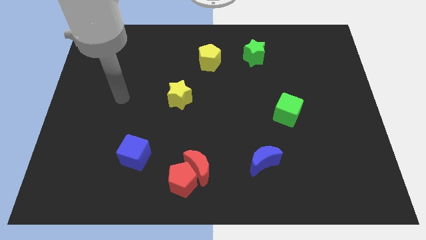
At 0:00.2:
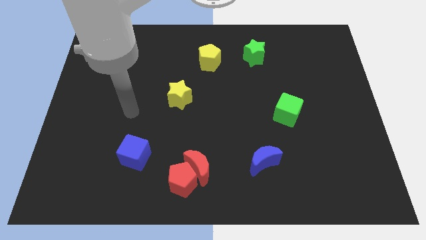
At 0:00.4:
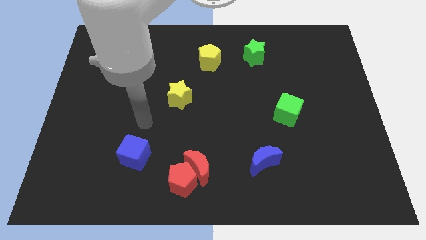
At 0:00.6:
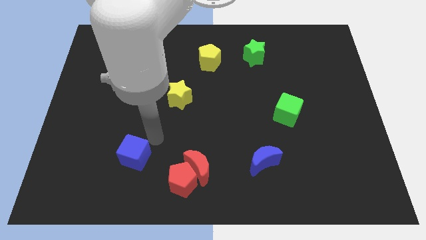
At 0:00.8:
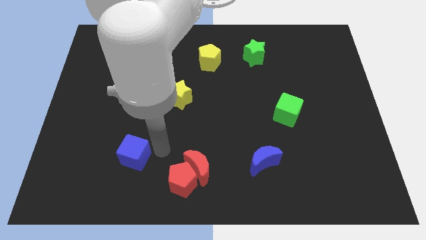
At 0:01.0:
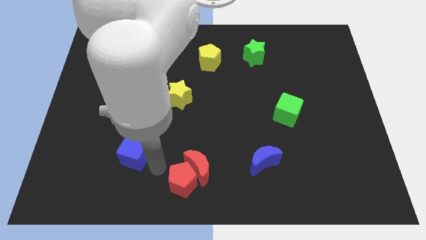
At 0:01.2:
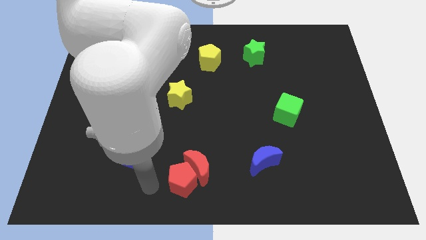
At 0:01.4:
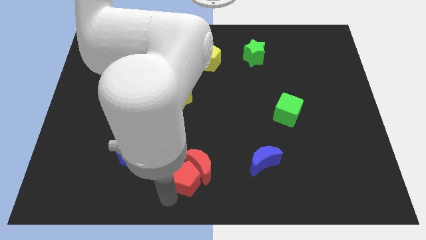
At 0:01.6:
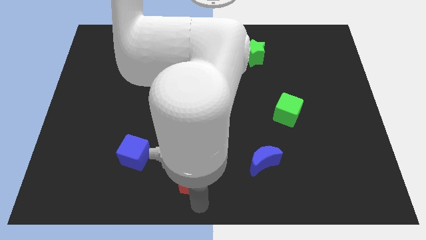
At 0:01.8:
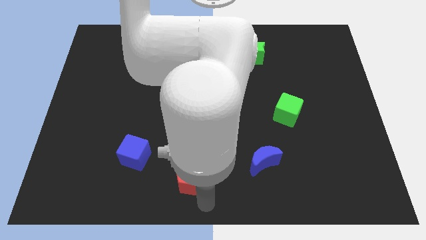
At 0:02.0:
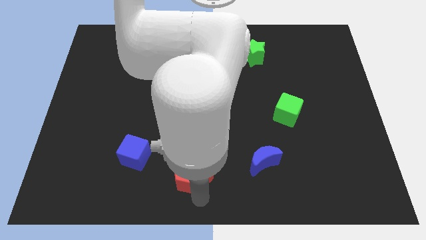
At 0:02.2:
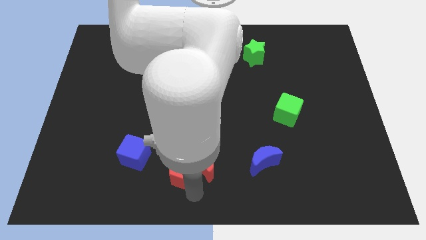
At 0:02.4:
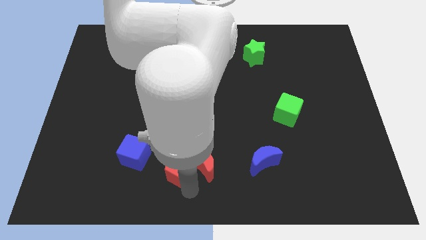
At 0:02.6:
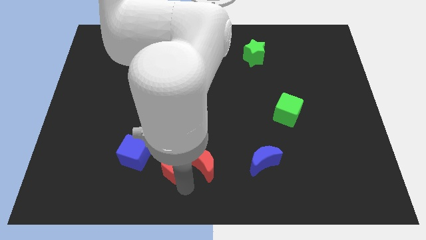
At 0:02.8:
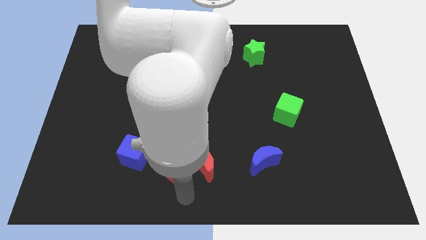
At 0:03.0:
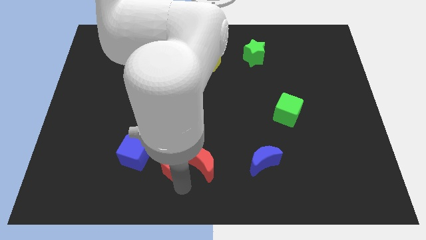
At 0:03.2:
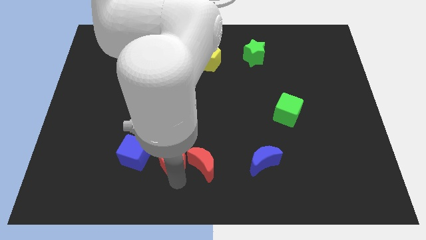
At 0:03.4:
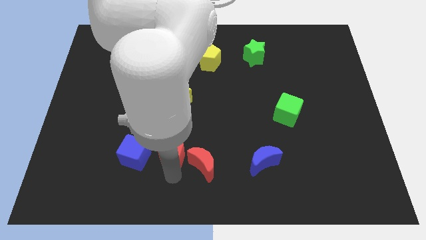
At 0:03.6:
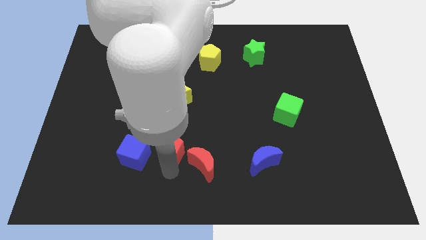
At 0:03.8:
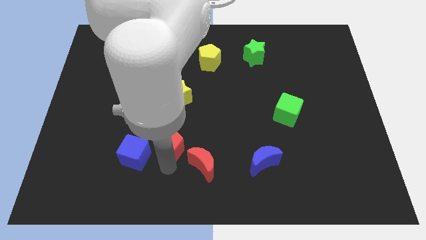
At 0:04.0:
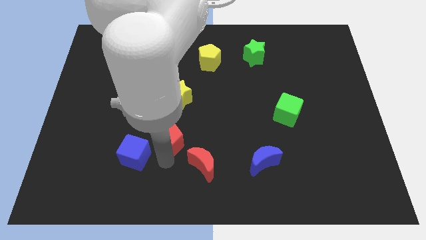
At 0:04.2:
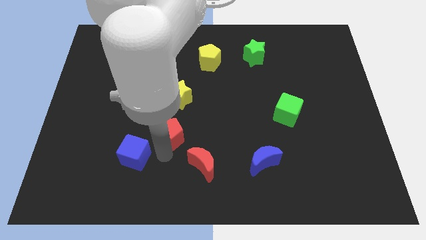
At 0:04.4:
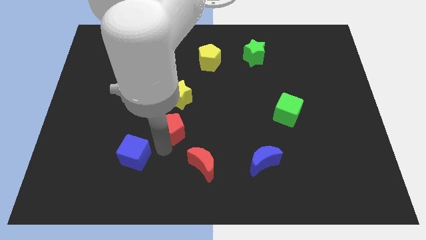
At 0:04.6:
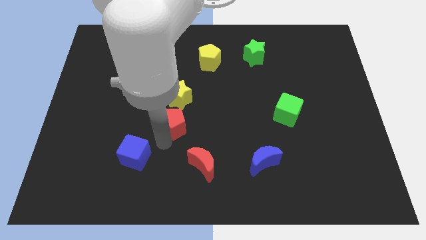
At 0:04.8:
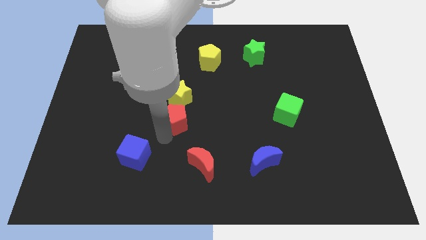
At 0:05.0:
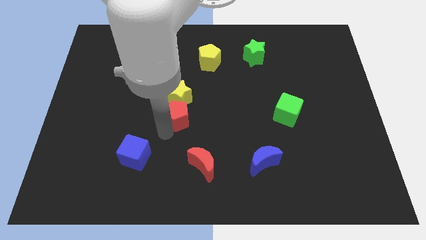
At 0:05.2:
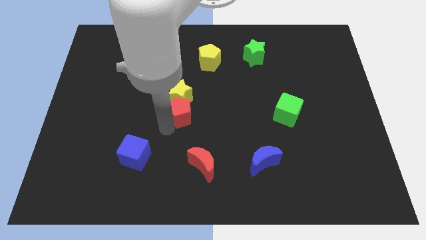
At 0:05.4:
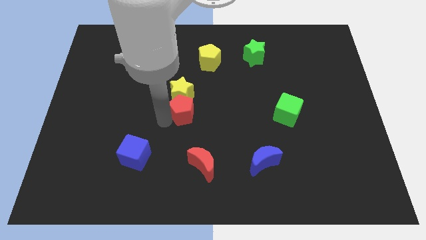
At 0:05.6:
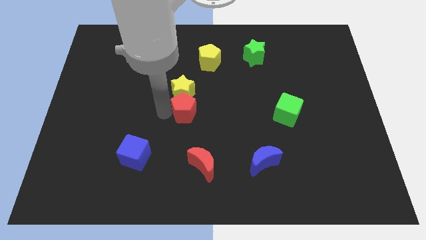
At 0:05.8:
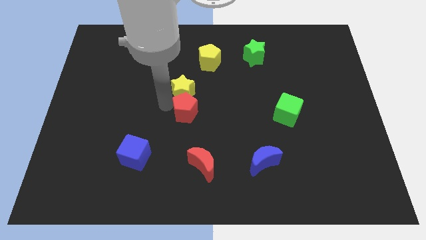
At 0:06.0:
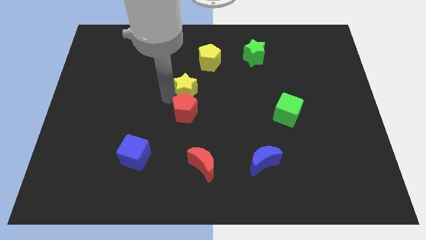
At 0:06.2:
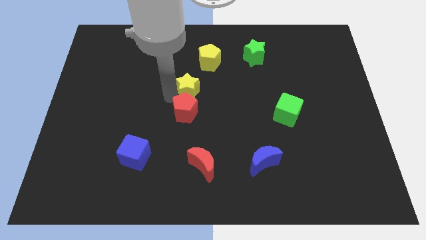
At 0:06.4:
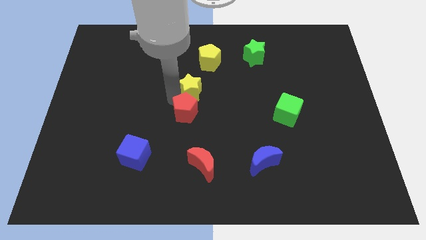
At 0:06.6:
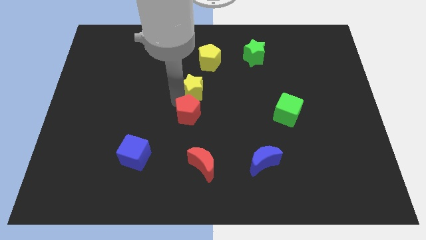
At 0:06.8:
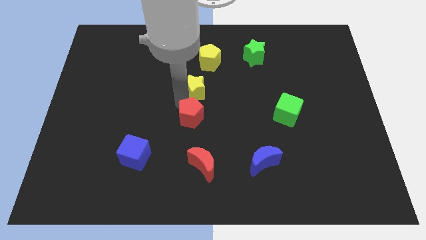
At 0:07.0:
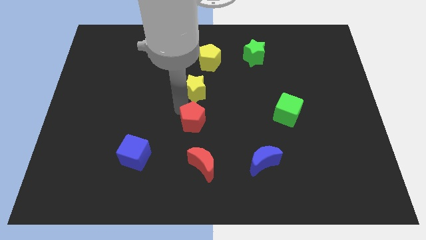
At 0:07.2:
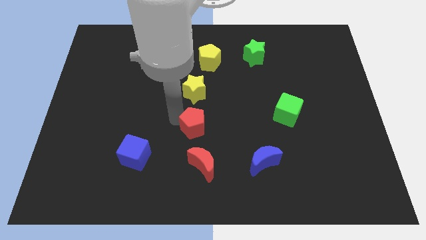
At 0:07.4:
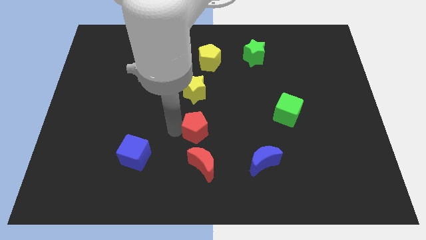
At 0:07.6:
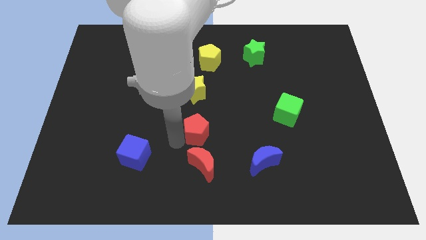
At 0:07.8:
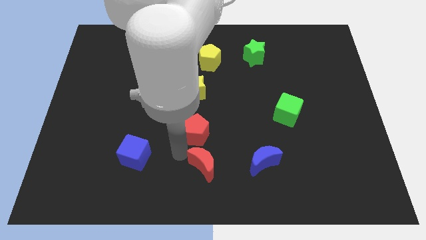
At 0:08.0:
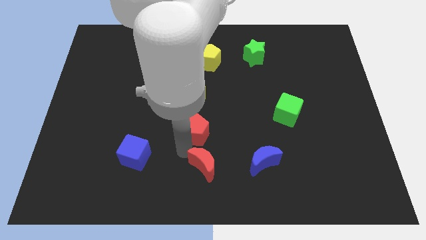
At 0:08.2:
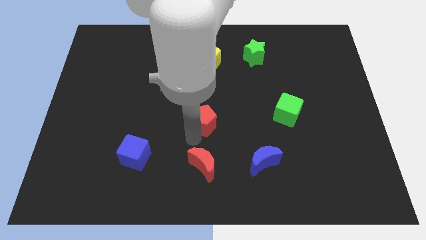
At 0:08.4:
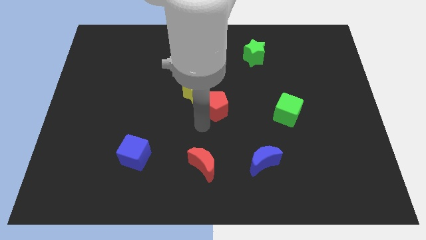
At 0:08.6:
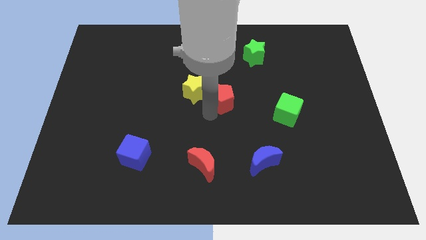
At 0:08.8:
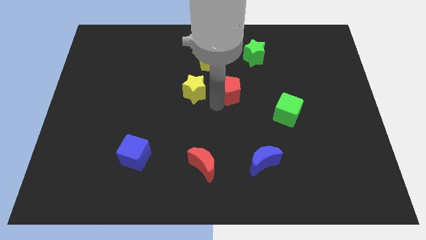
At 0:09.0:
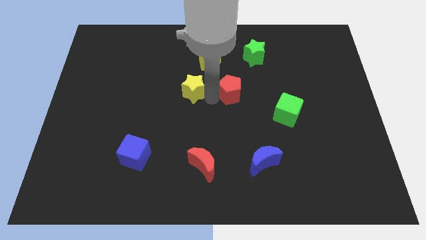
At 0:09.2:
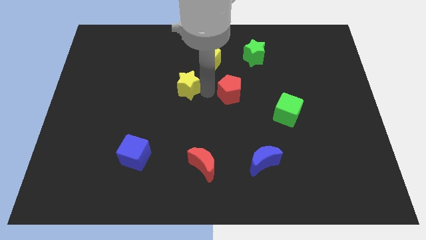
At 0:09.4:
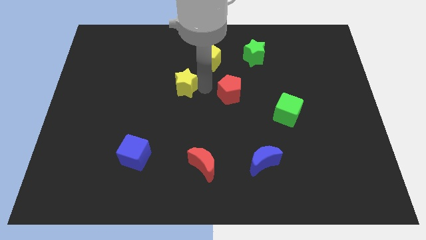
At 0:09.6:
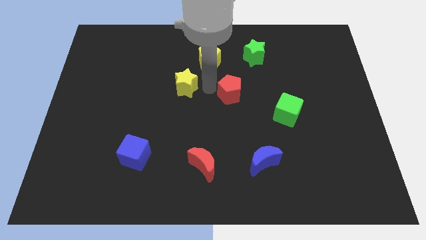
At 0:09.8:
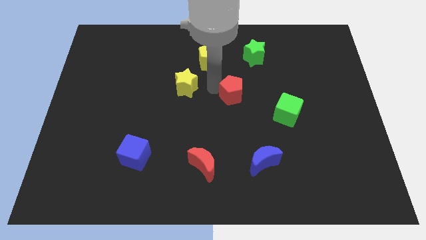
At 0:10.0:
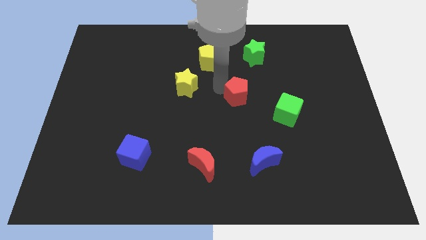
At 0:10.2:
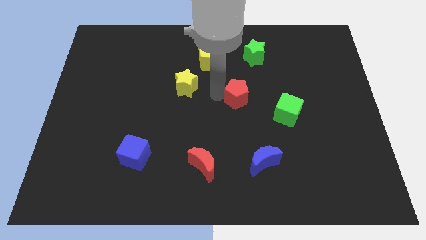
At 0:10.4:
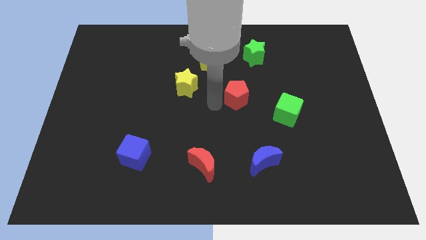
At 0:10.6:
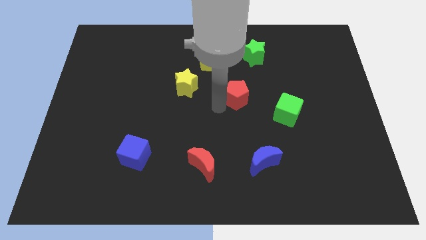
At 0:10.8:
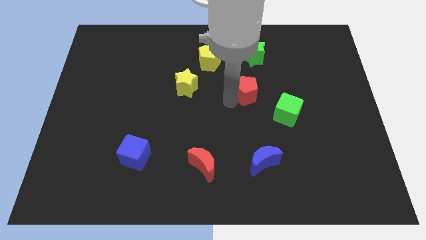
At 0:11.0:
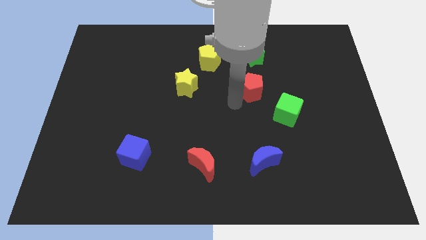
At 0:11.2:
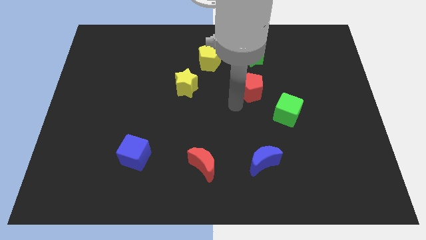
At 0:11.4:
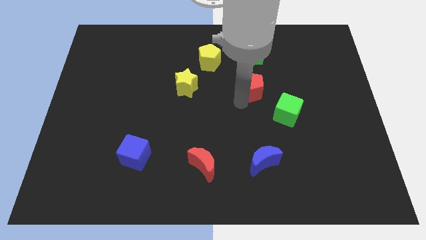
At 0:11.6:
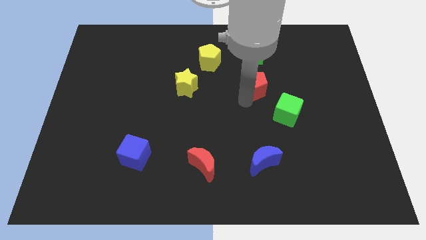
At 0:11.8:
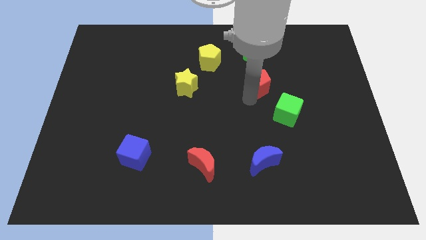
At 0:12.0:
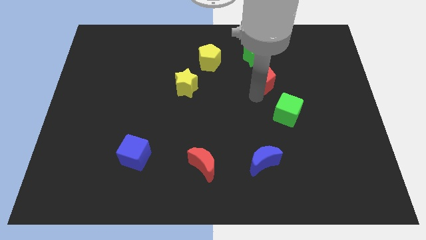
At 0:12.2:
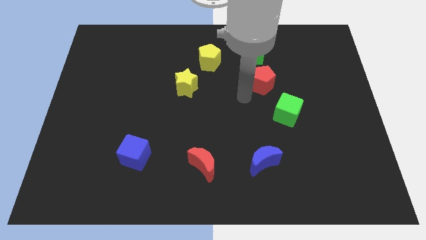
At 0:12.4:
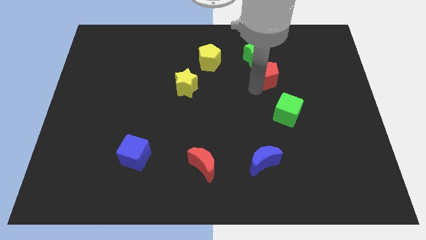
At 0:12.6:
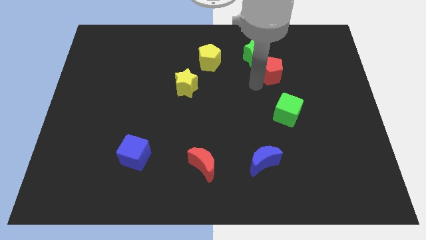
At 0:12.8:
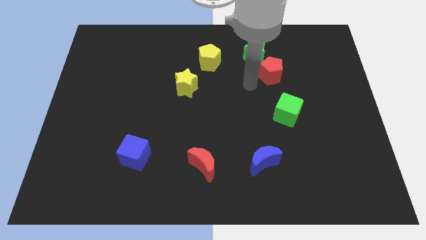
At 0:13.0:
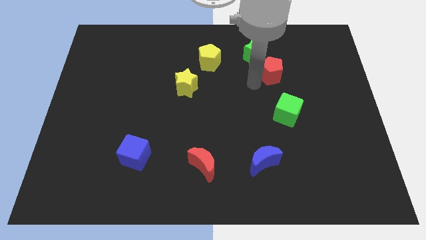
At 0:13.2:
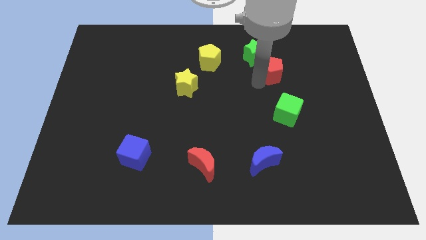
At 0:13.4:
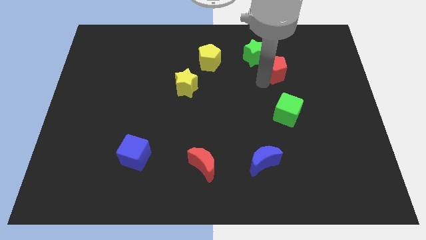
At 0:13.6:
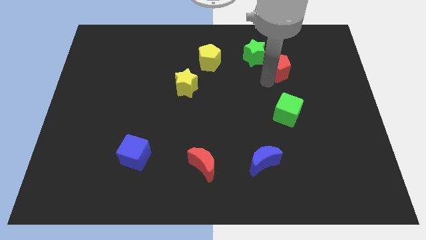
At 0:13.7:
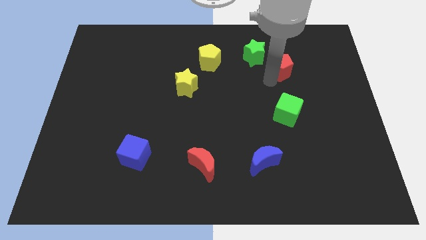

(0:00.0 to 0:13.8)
put the red pentagon right of the green star

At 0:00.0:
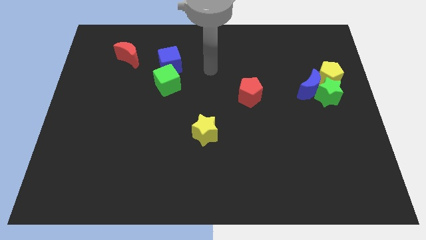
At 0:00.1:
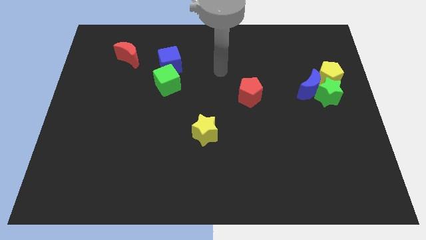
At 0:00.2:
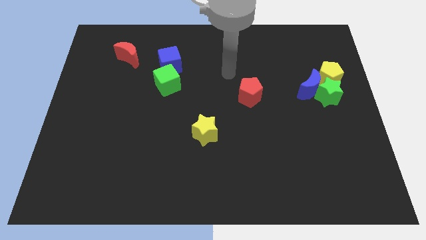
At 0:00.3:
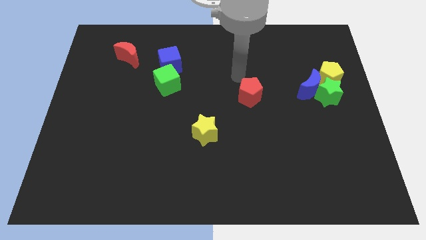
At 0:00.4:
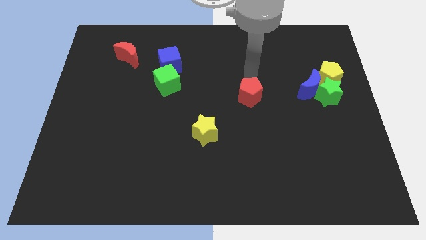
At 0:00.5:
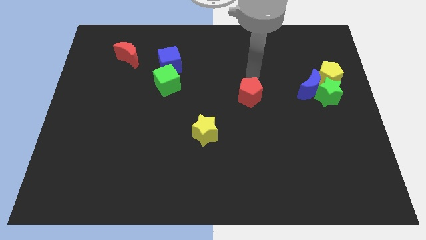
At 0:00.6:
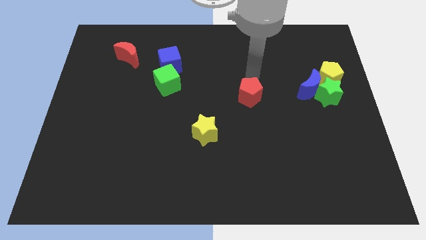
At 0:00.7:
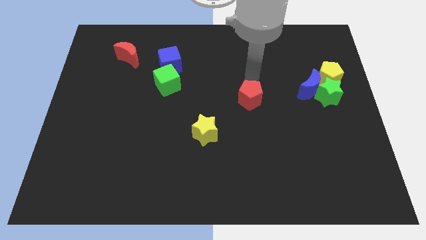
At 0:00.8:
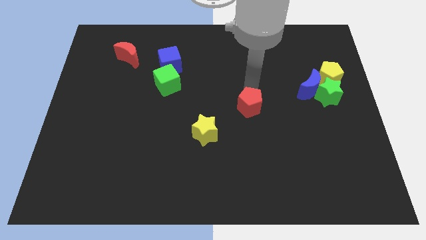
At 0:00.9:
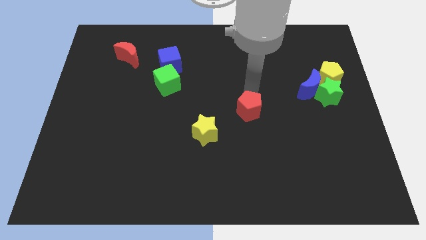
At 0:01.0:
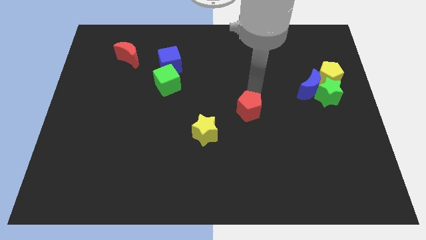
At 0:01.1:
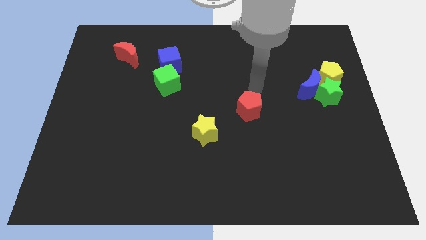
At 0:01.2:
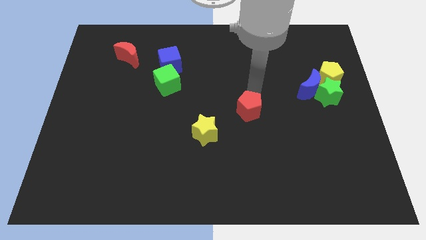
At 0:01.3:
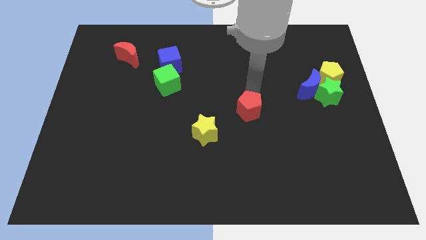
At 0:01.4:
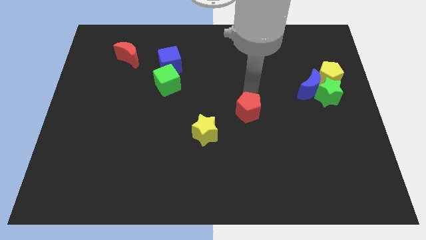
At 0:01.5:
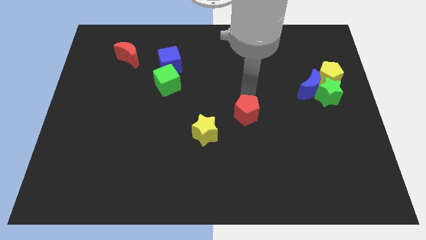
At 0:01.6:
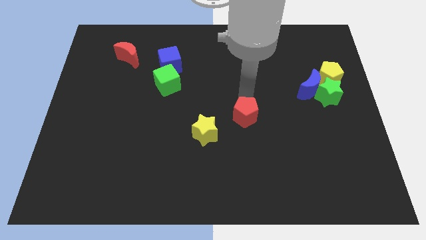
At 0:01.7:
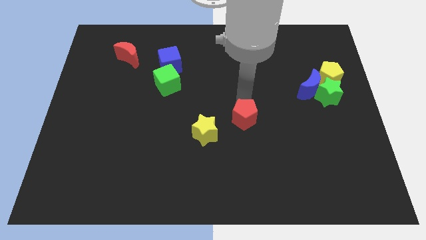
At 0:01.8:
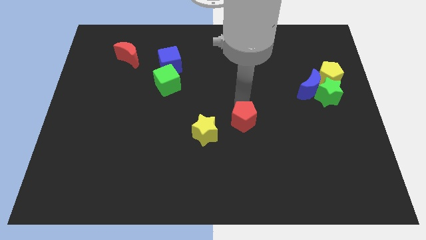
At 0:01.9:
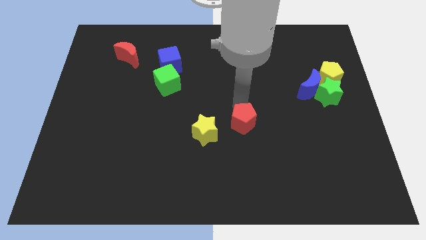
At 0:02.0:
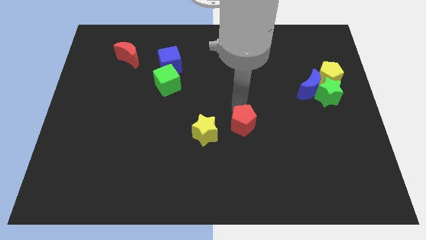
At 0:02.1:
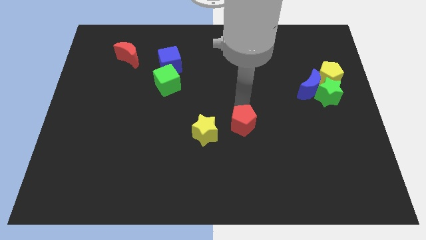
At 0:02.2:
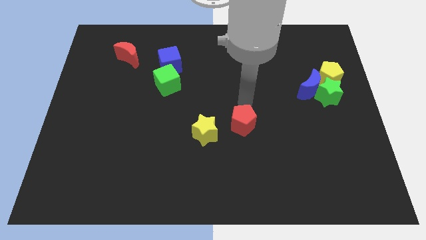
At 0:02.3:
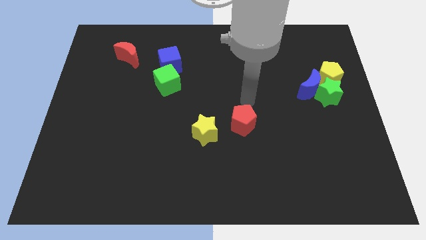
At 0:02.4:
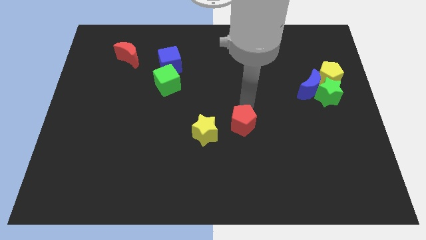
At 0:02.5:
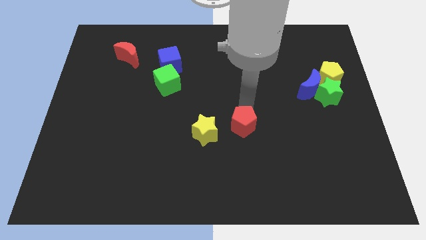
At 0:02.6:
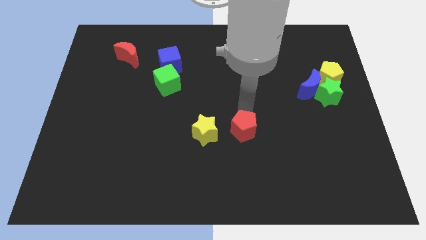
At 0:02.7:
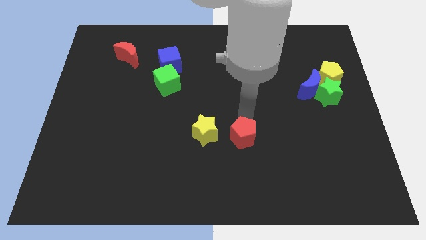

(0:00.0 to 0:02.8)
move the red pentagon to the bottom right side of the yellow star
